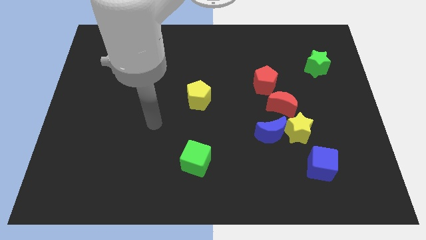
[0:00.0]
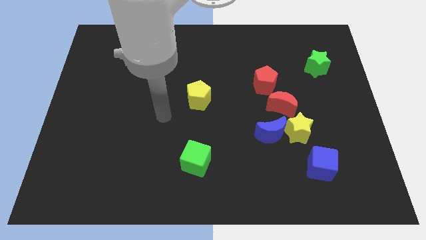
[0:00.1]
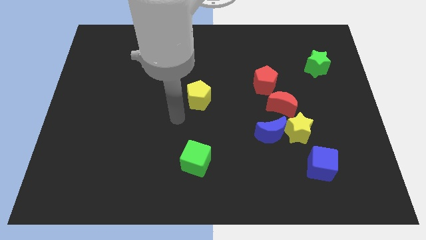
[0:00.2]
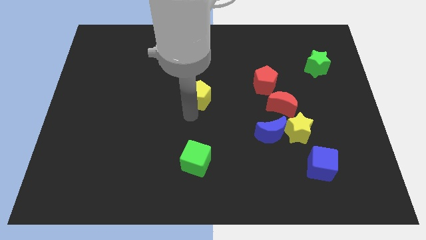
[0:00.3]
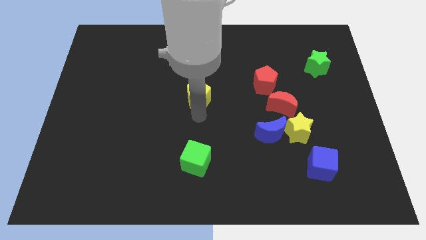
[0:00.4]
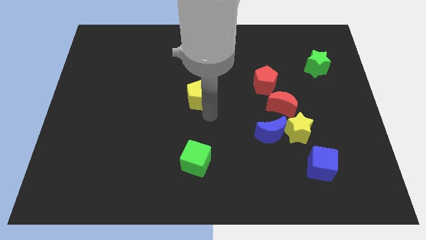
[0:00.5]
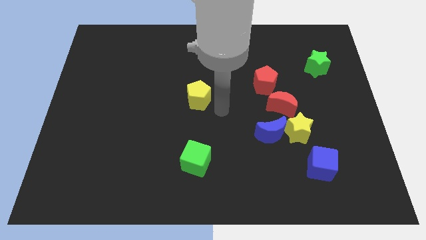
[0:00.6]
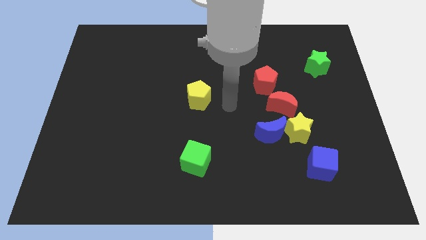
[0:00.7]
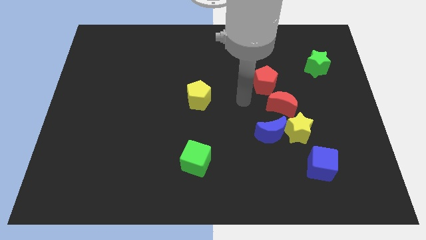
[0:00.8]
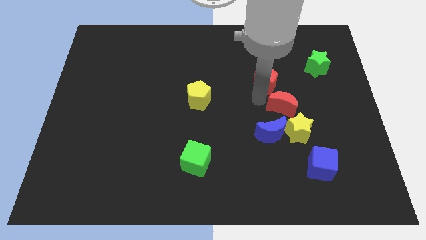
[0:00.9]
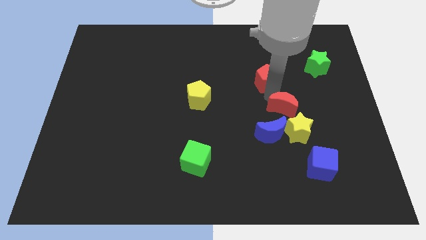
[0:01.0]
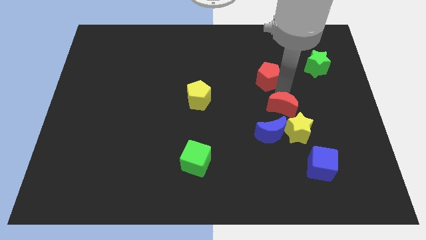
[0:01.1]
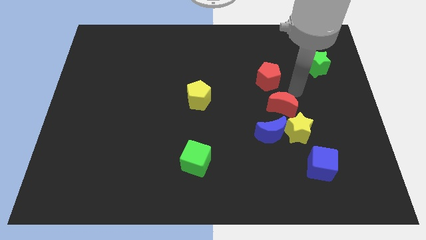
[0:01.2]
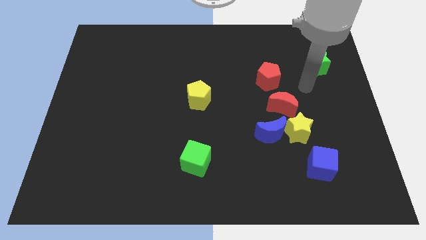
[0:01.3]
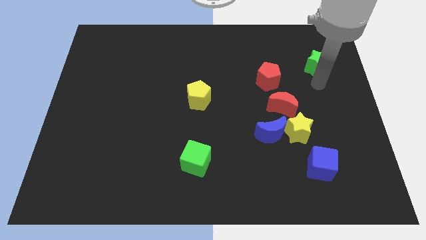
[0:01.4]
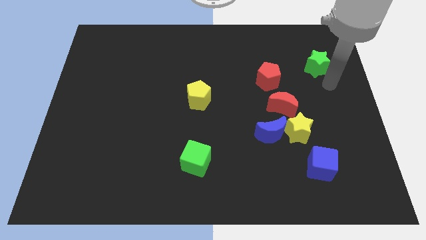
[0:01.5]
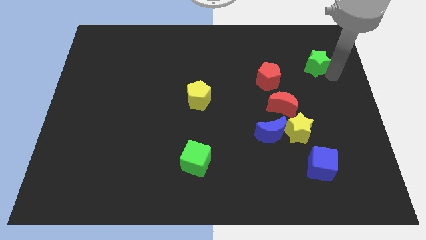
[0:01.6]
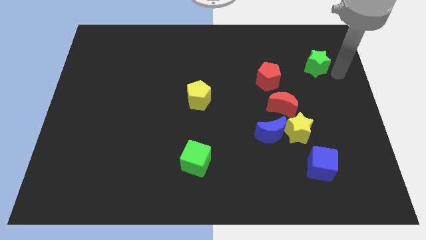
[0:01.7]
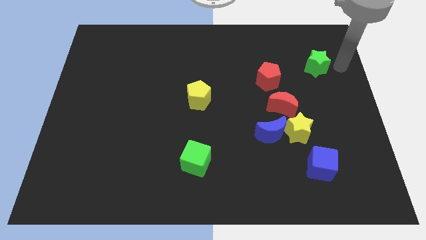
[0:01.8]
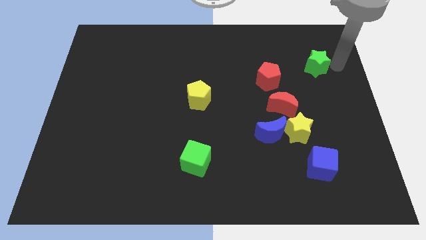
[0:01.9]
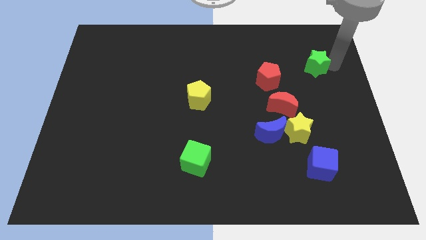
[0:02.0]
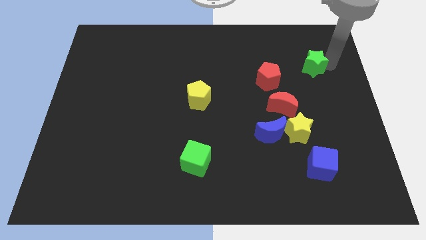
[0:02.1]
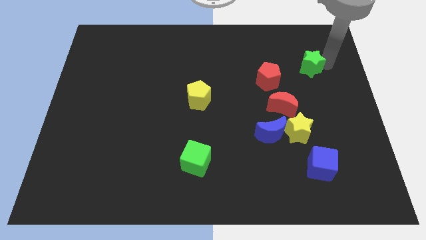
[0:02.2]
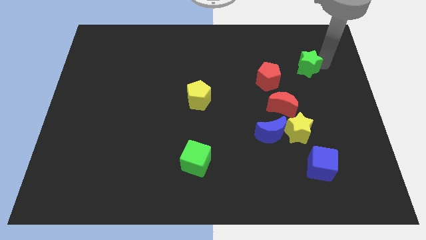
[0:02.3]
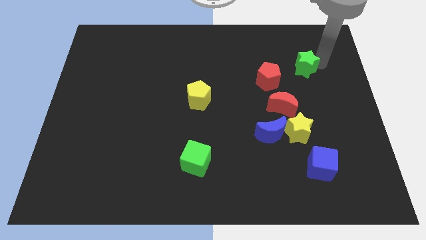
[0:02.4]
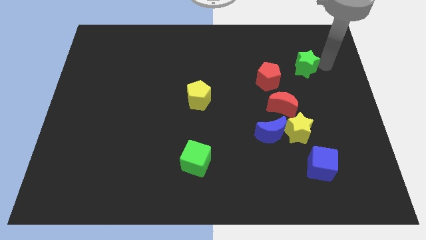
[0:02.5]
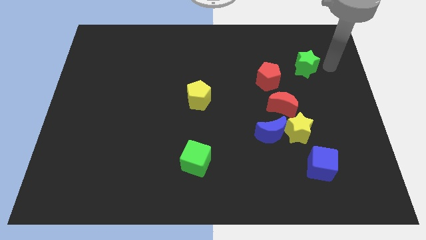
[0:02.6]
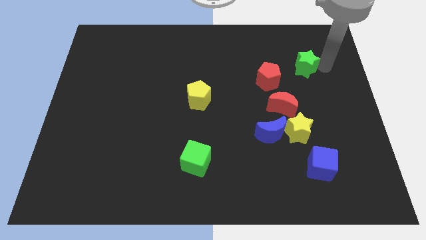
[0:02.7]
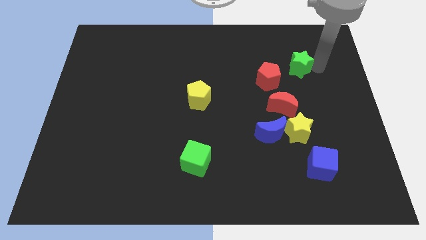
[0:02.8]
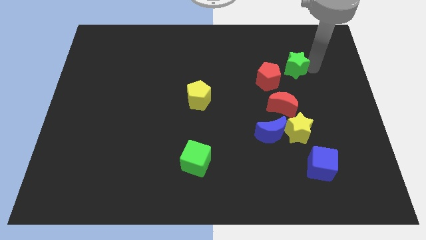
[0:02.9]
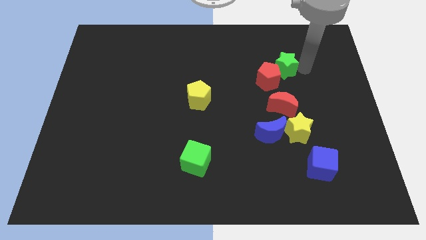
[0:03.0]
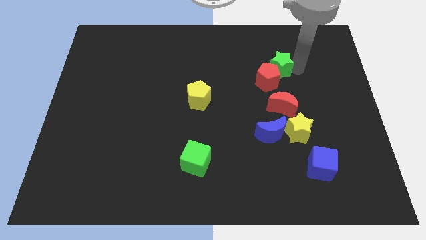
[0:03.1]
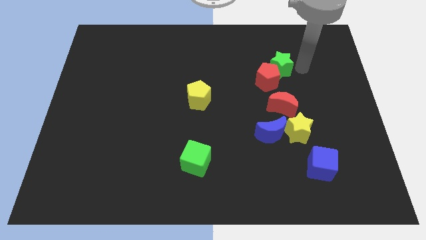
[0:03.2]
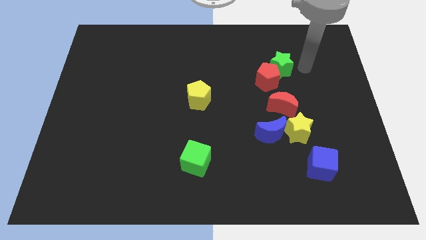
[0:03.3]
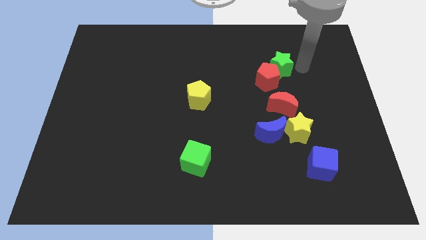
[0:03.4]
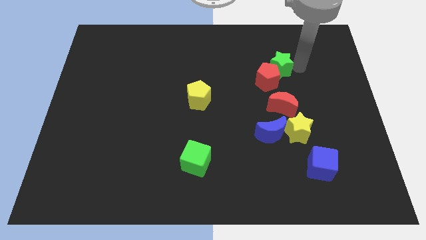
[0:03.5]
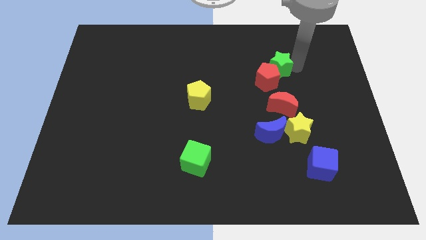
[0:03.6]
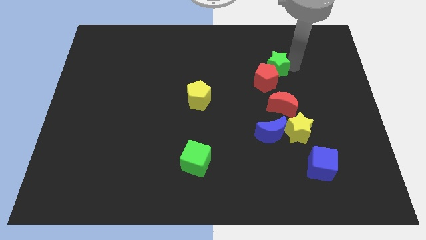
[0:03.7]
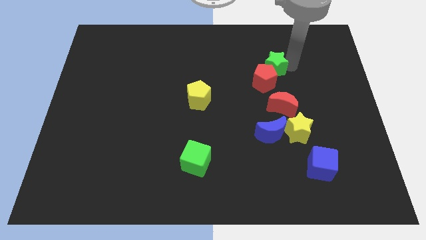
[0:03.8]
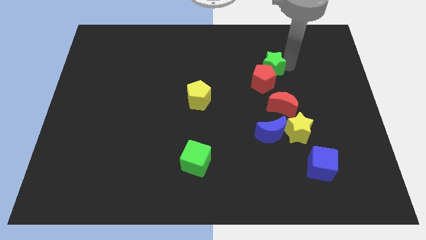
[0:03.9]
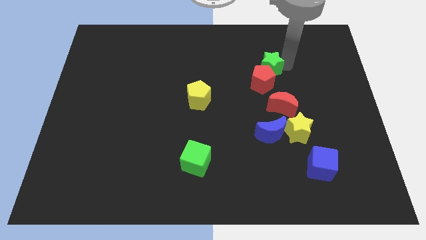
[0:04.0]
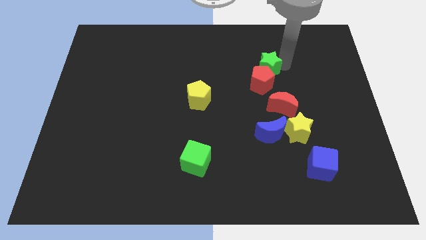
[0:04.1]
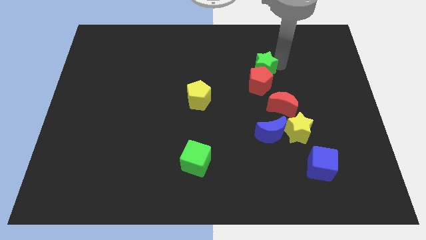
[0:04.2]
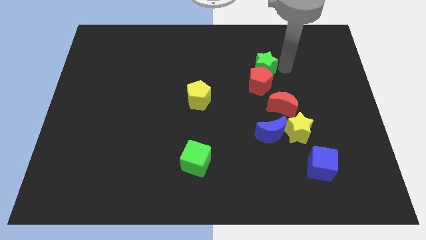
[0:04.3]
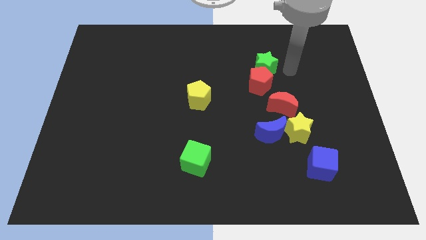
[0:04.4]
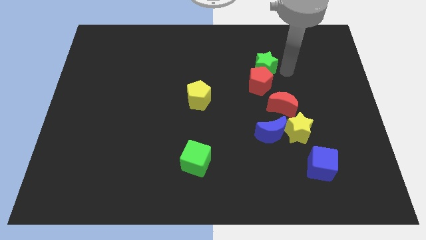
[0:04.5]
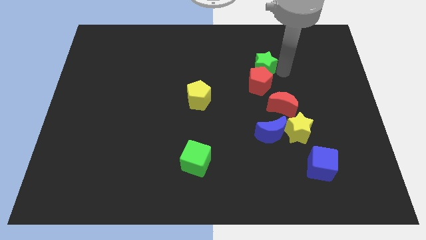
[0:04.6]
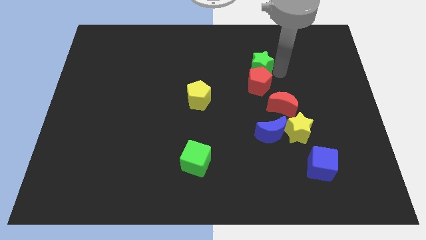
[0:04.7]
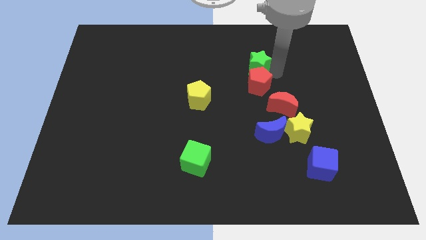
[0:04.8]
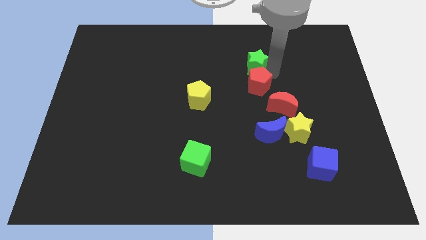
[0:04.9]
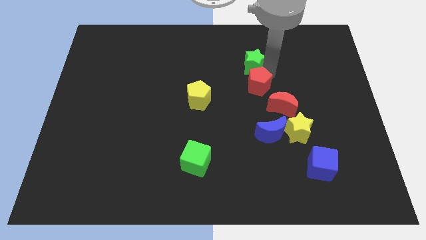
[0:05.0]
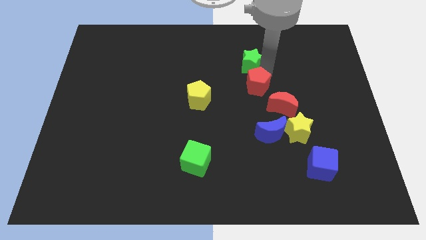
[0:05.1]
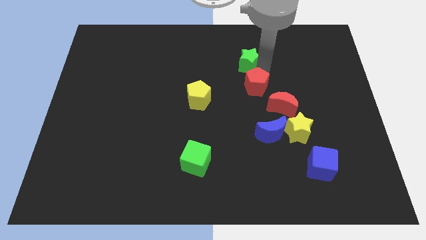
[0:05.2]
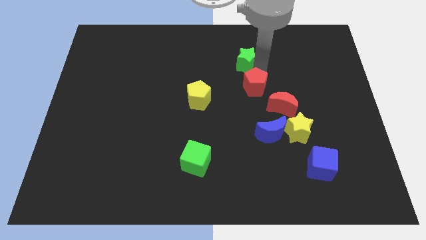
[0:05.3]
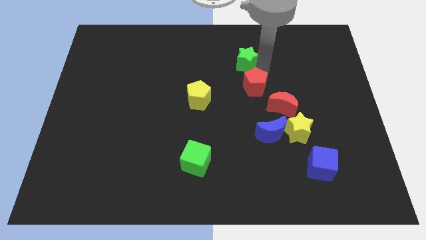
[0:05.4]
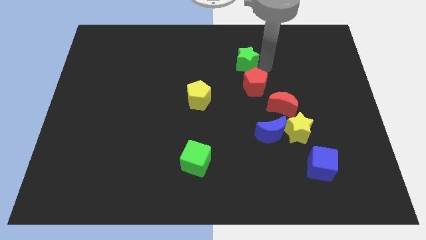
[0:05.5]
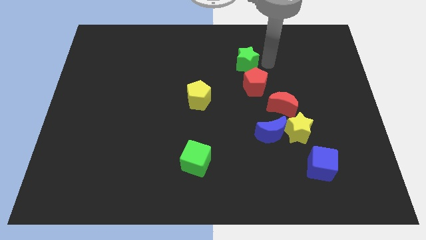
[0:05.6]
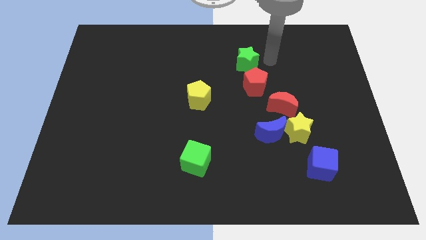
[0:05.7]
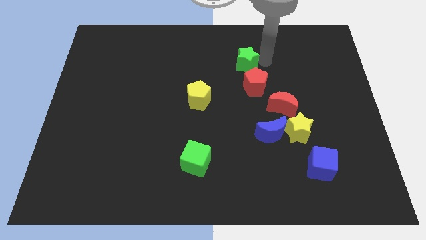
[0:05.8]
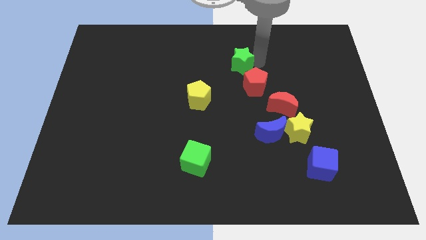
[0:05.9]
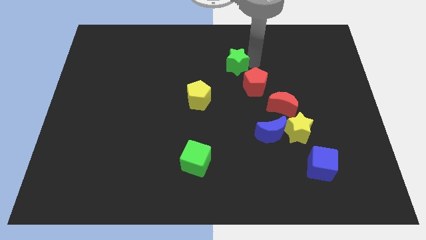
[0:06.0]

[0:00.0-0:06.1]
move the green star left

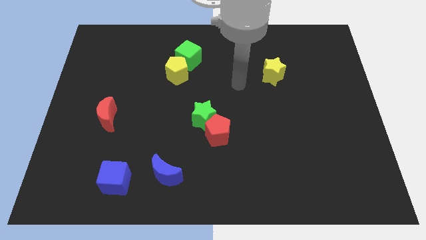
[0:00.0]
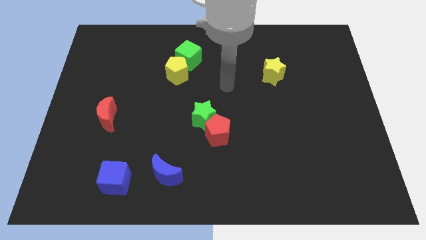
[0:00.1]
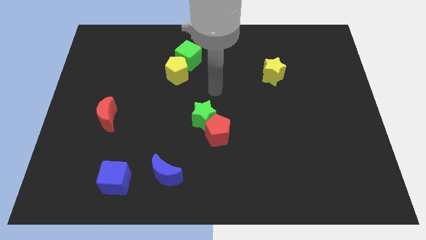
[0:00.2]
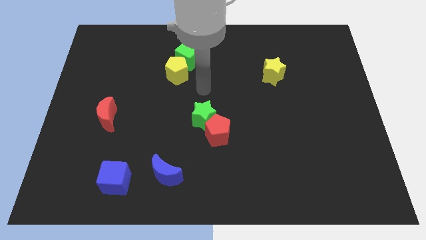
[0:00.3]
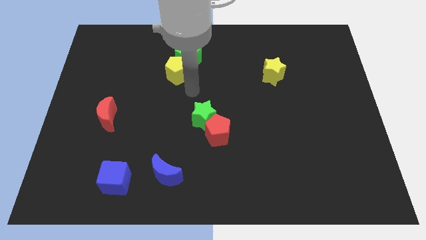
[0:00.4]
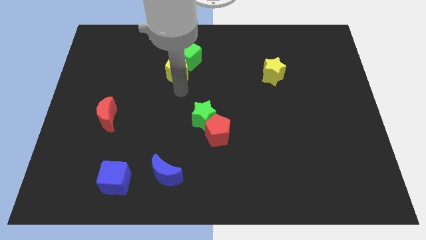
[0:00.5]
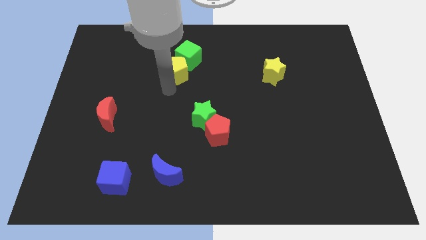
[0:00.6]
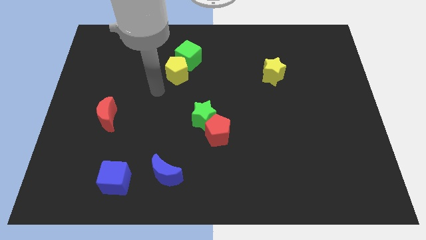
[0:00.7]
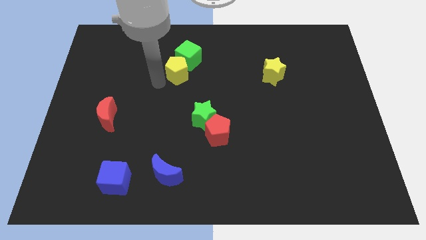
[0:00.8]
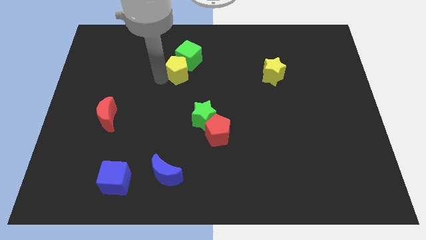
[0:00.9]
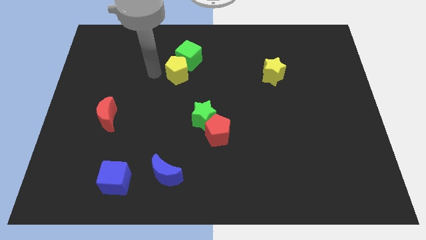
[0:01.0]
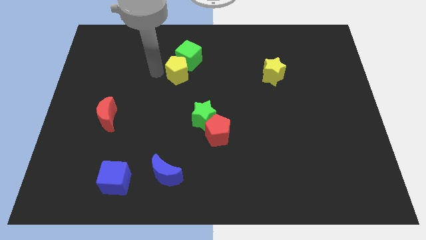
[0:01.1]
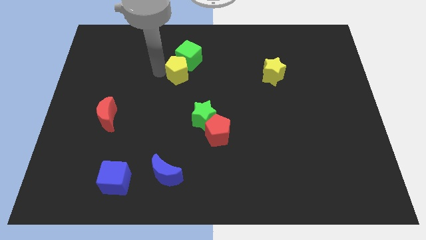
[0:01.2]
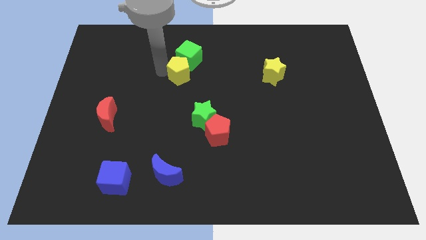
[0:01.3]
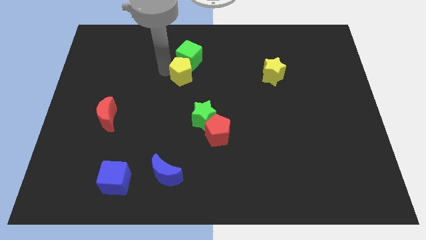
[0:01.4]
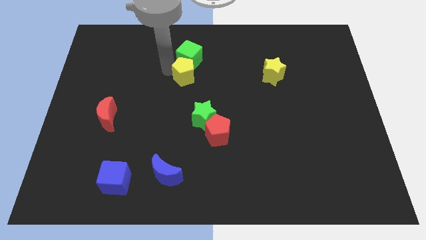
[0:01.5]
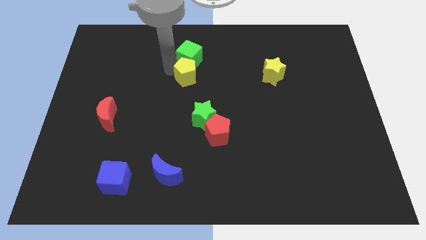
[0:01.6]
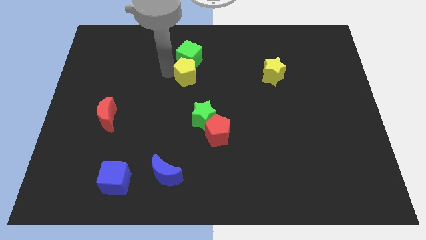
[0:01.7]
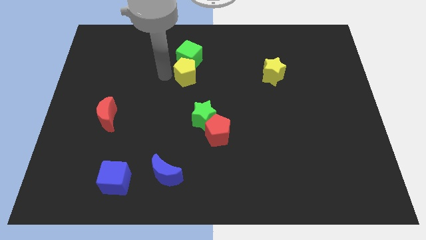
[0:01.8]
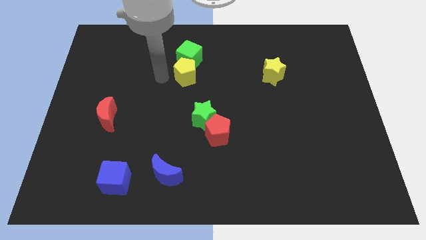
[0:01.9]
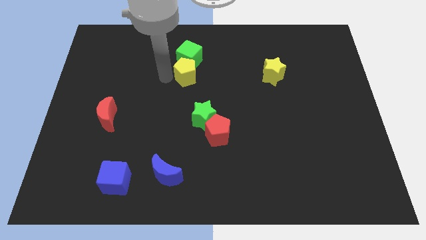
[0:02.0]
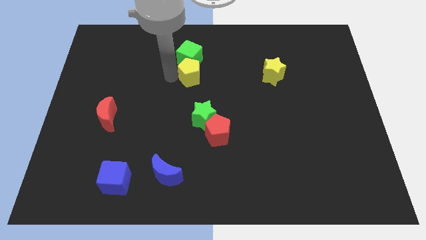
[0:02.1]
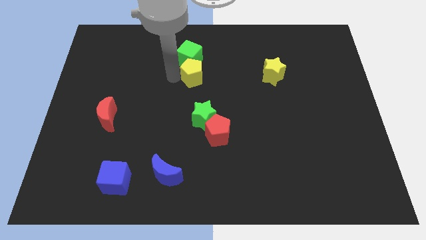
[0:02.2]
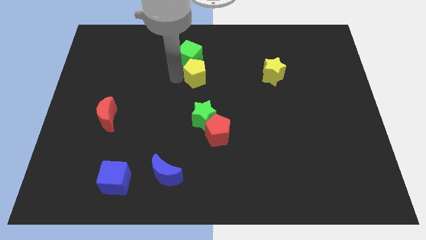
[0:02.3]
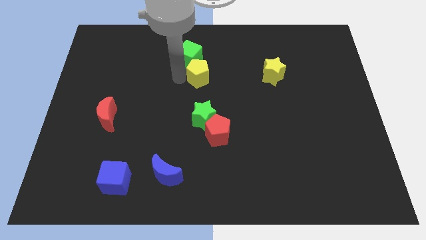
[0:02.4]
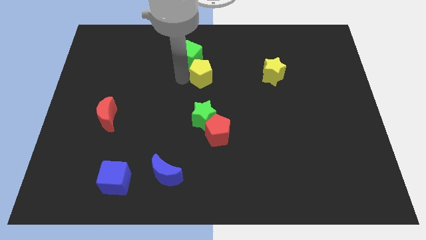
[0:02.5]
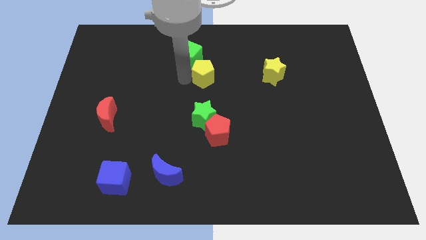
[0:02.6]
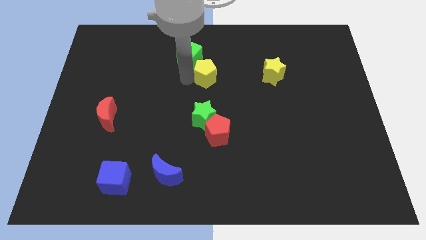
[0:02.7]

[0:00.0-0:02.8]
slightly move the yellow pentagon right
